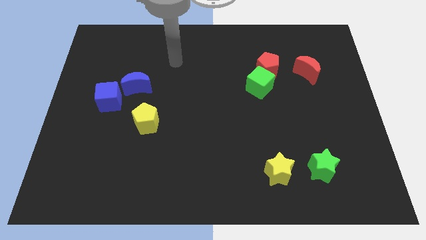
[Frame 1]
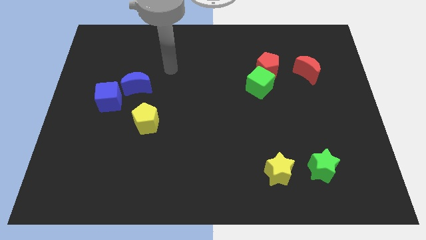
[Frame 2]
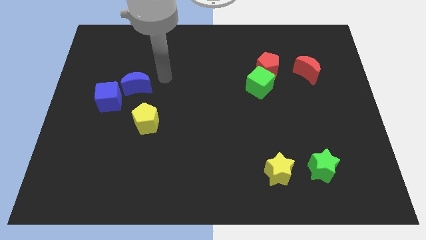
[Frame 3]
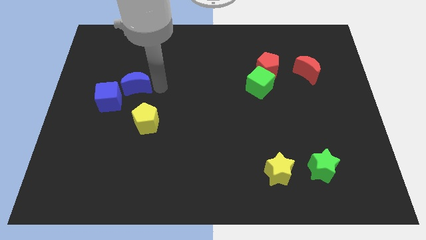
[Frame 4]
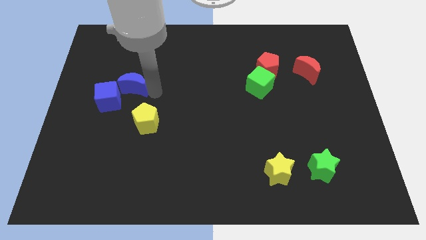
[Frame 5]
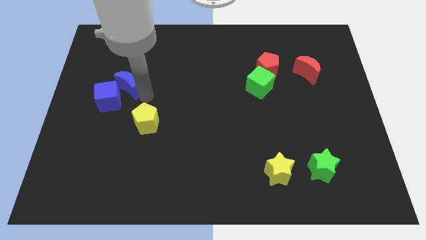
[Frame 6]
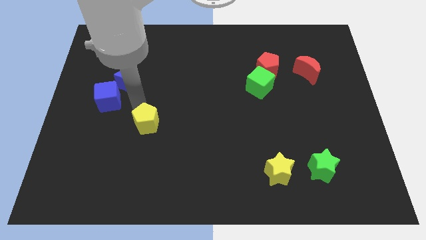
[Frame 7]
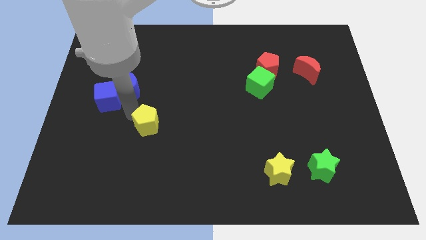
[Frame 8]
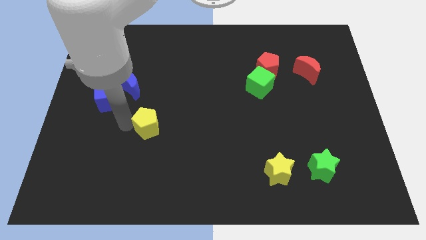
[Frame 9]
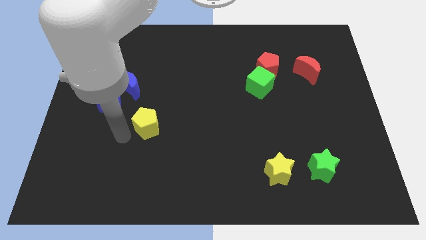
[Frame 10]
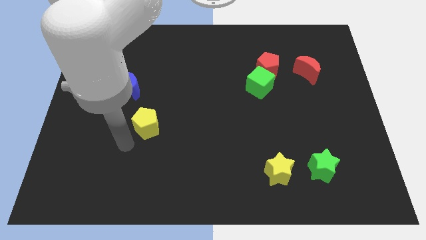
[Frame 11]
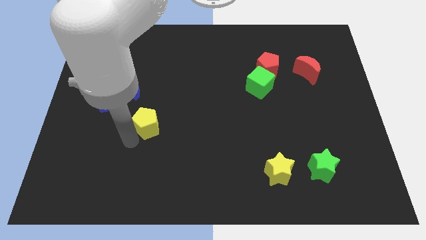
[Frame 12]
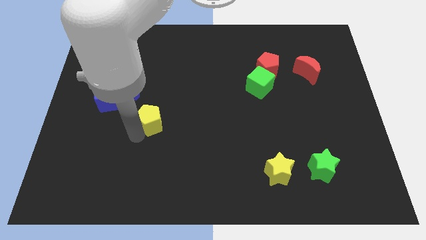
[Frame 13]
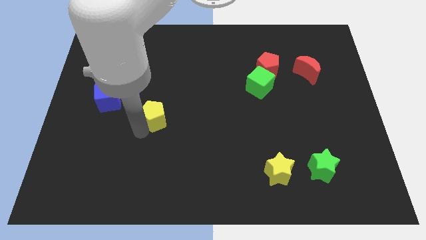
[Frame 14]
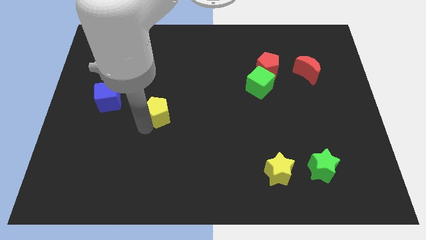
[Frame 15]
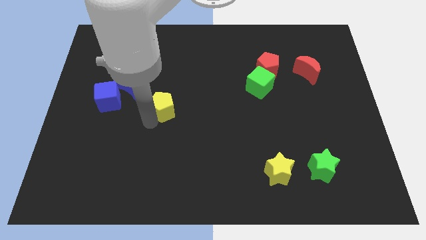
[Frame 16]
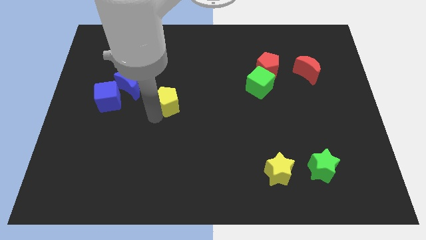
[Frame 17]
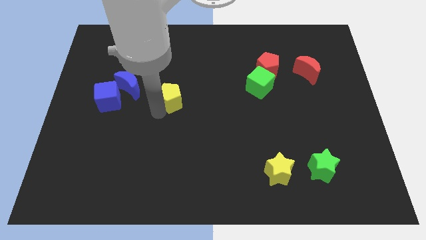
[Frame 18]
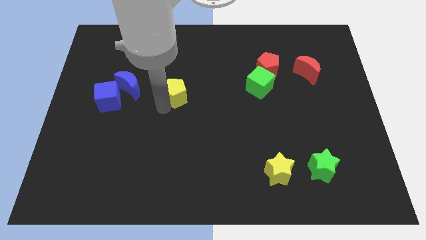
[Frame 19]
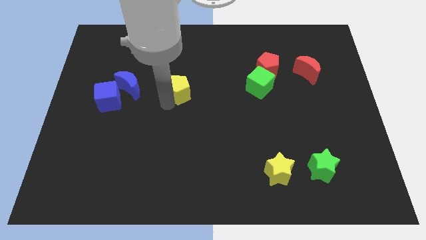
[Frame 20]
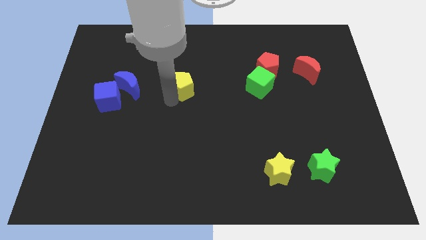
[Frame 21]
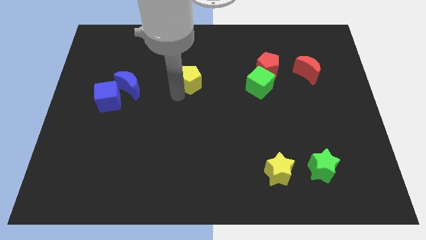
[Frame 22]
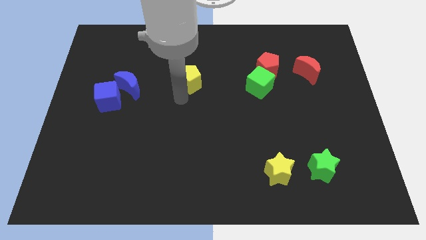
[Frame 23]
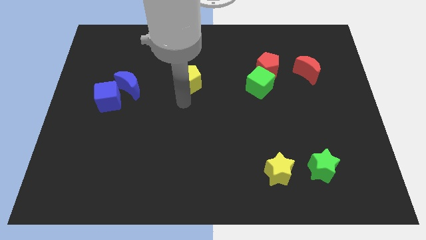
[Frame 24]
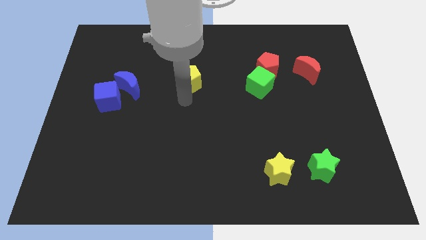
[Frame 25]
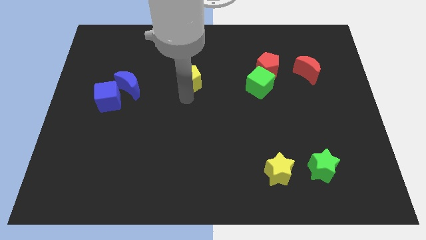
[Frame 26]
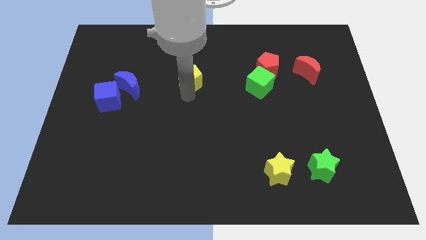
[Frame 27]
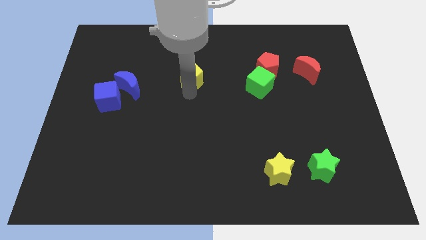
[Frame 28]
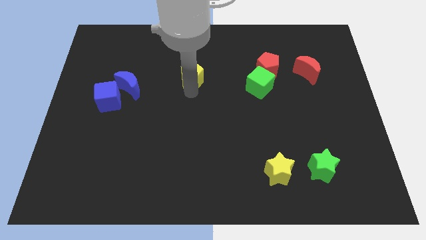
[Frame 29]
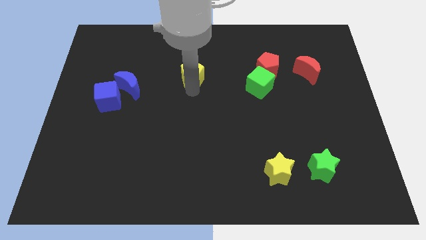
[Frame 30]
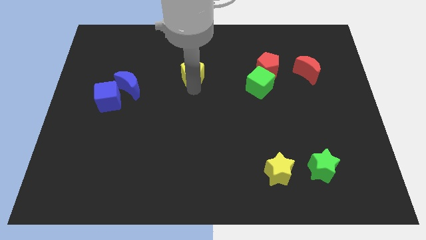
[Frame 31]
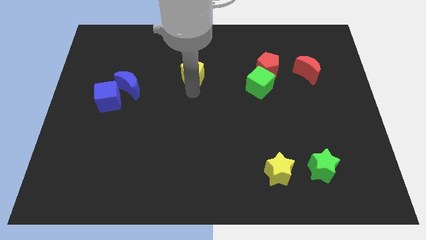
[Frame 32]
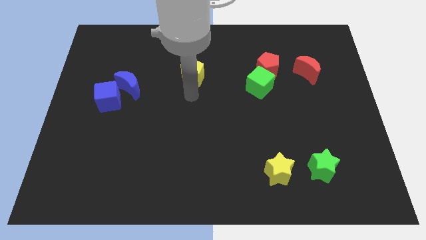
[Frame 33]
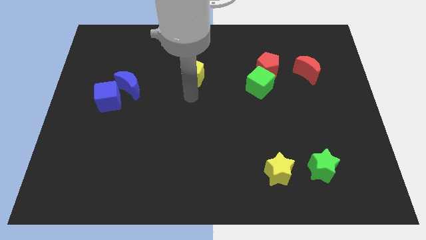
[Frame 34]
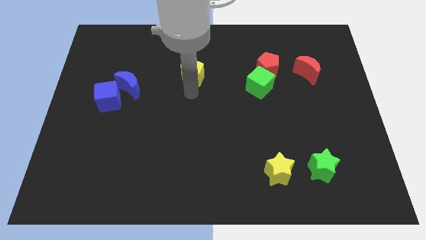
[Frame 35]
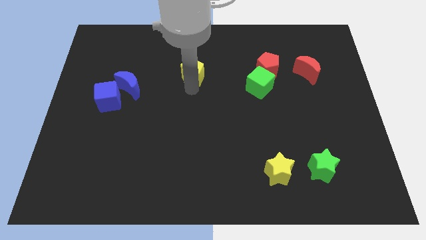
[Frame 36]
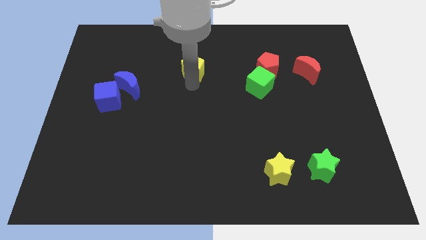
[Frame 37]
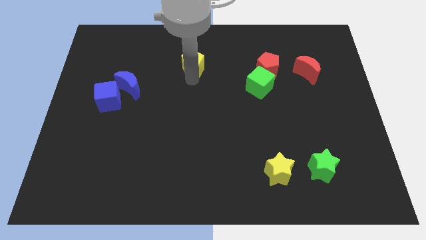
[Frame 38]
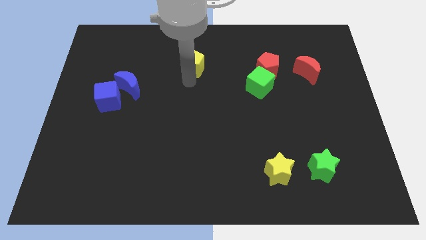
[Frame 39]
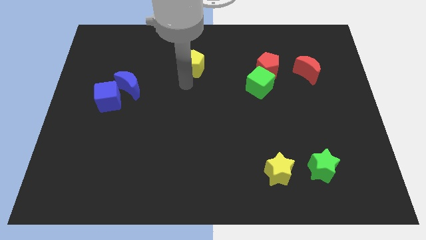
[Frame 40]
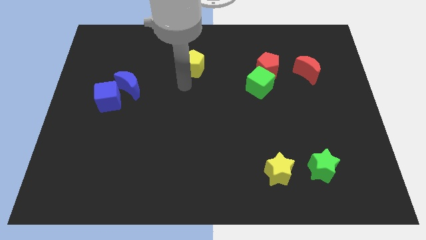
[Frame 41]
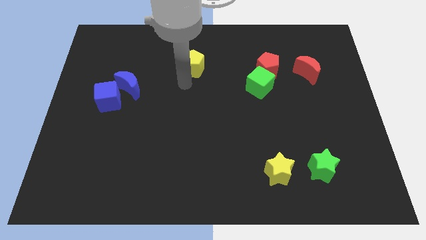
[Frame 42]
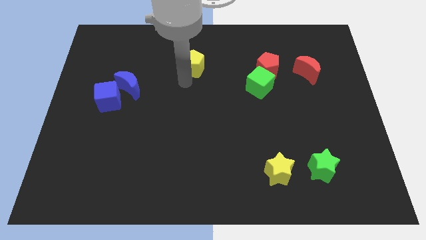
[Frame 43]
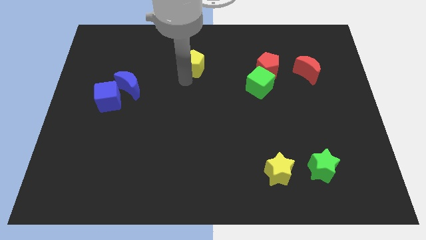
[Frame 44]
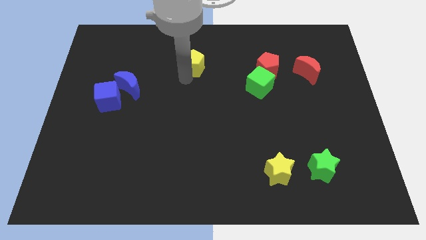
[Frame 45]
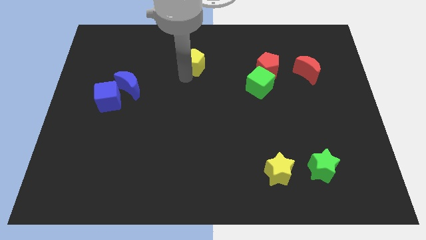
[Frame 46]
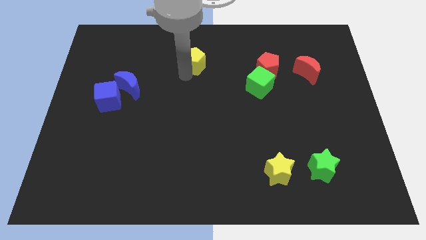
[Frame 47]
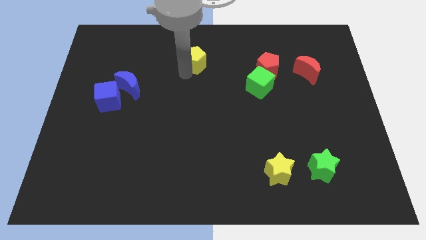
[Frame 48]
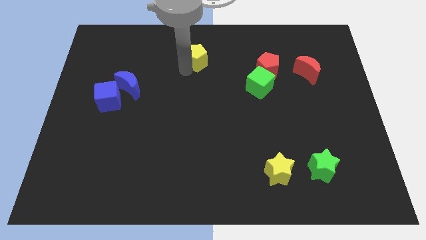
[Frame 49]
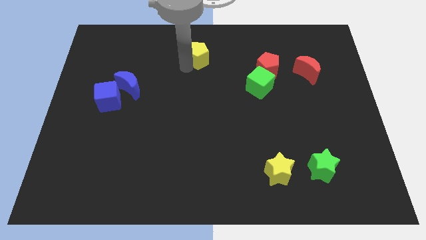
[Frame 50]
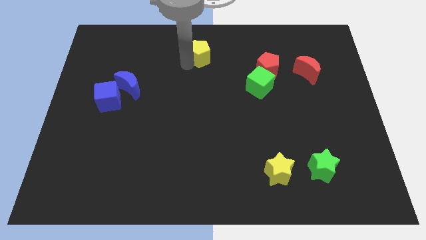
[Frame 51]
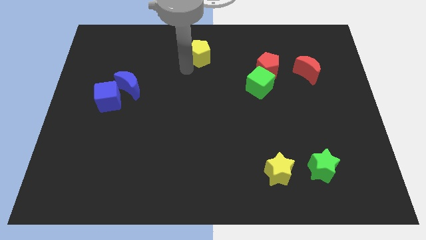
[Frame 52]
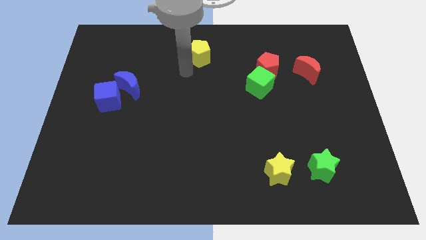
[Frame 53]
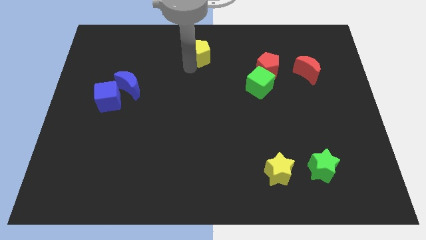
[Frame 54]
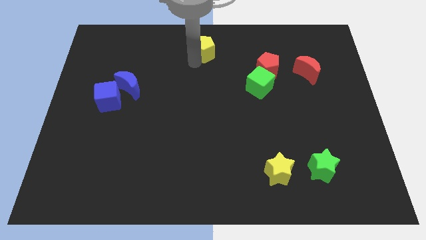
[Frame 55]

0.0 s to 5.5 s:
move the yellow pentagon to the top

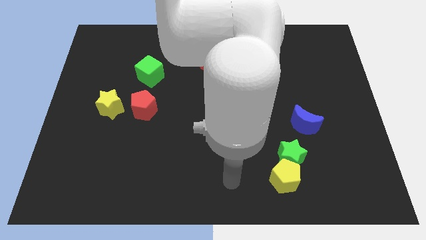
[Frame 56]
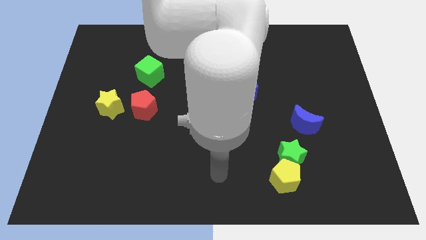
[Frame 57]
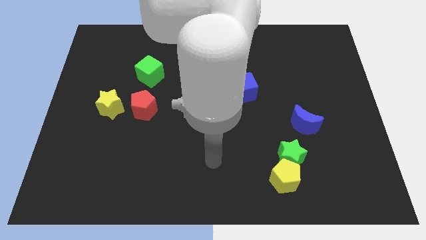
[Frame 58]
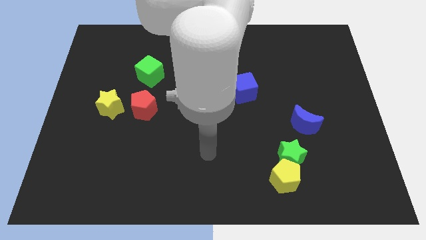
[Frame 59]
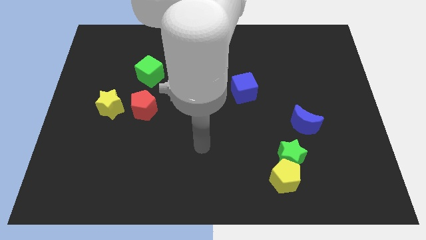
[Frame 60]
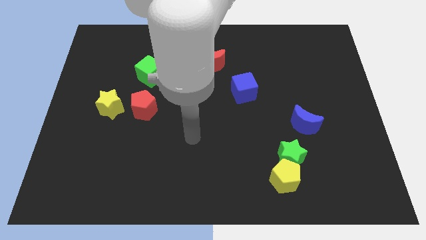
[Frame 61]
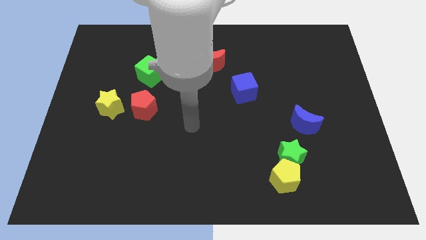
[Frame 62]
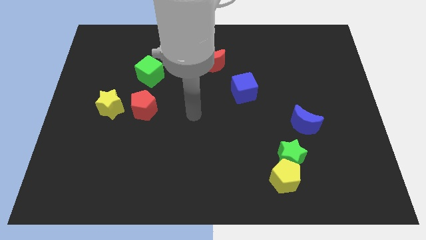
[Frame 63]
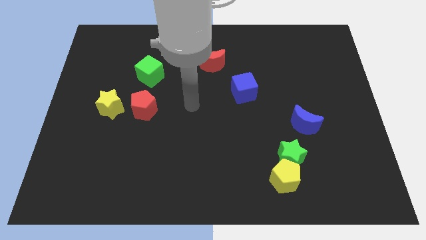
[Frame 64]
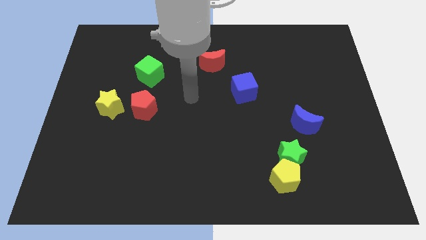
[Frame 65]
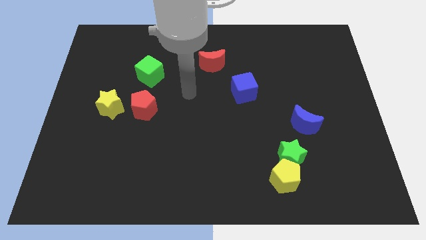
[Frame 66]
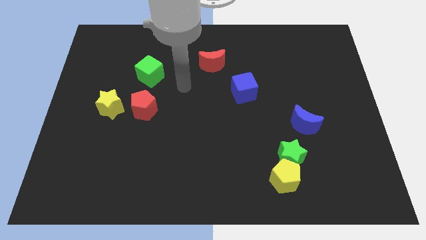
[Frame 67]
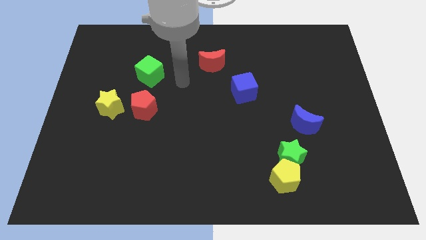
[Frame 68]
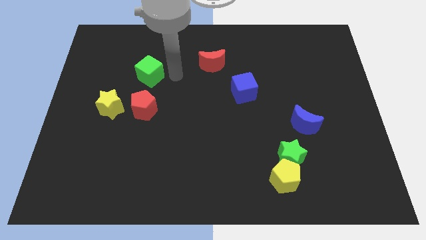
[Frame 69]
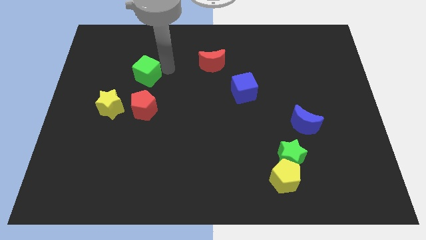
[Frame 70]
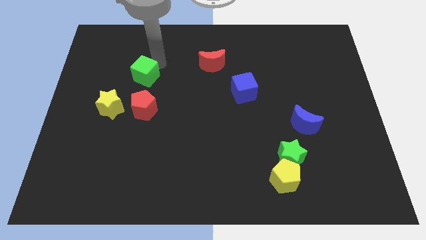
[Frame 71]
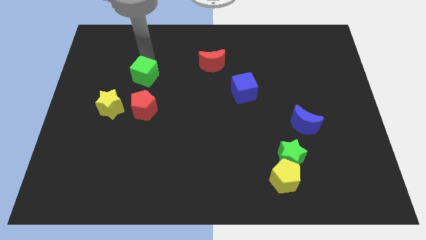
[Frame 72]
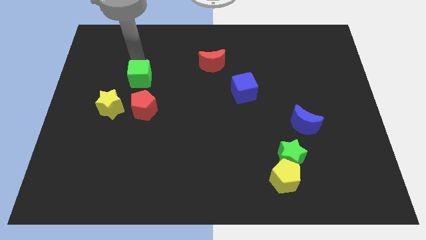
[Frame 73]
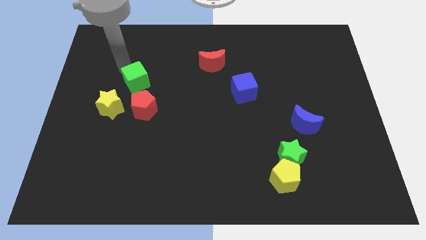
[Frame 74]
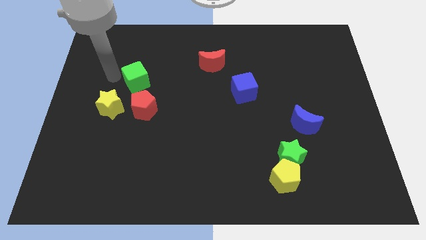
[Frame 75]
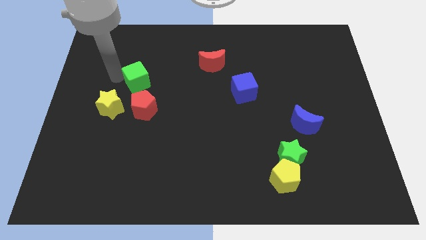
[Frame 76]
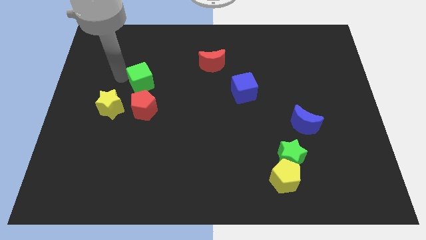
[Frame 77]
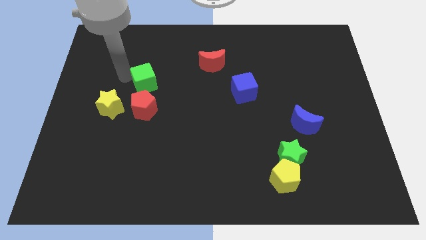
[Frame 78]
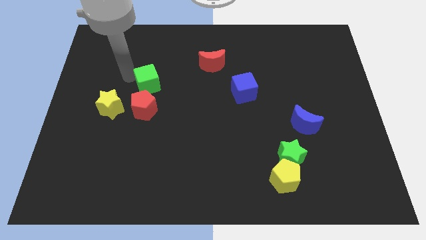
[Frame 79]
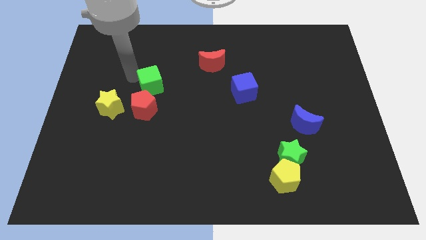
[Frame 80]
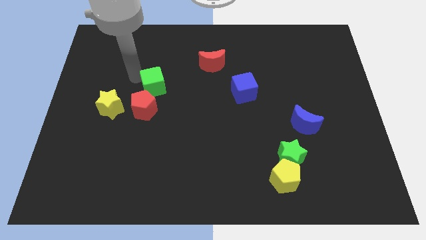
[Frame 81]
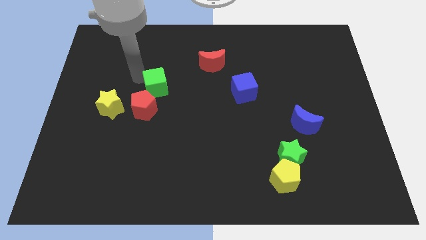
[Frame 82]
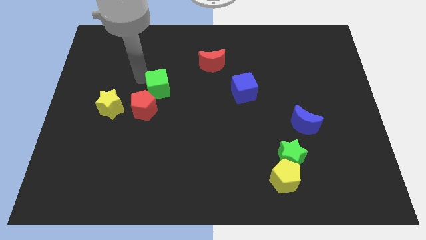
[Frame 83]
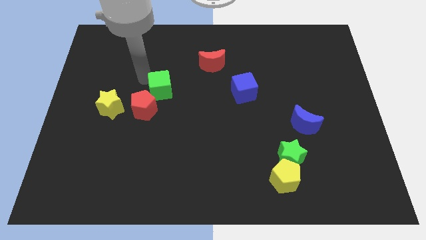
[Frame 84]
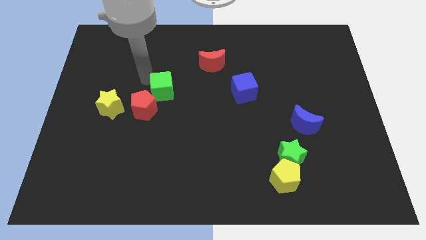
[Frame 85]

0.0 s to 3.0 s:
push the green cube to the center
